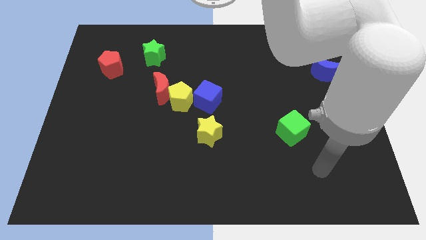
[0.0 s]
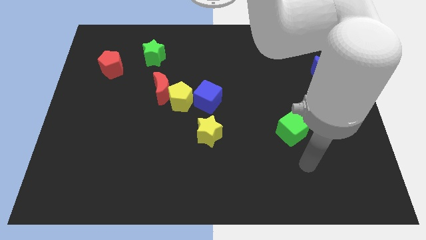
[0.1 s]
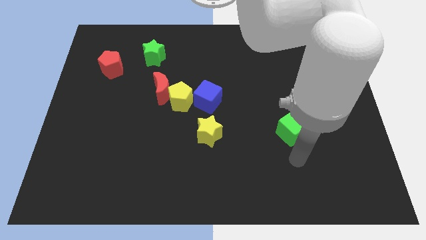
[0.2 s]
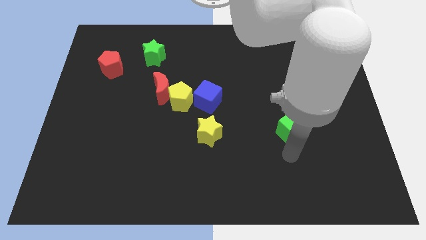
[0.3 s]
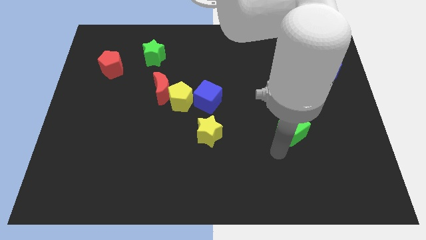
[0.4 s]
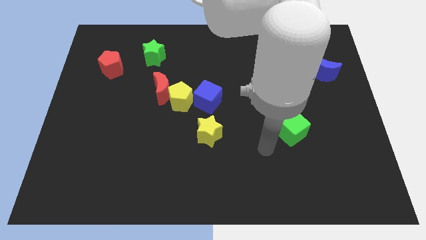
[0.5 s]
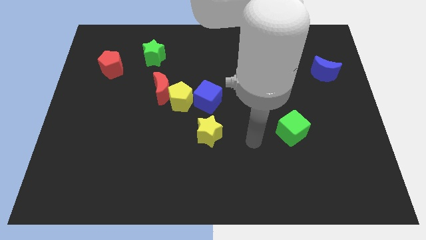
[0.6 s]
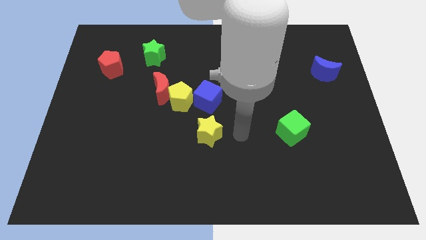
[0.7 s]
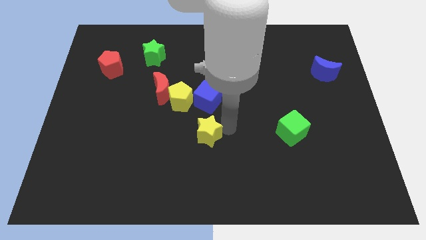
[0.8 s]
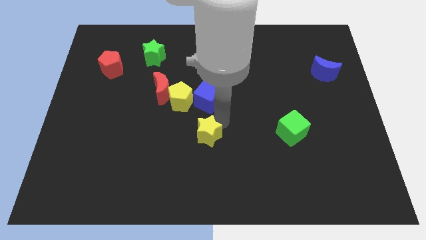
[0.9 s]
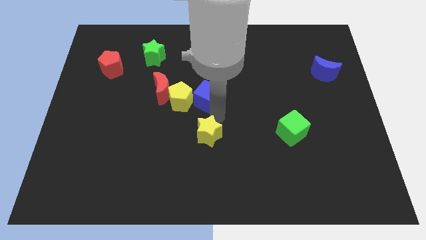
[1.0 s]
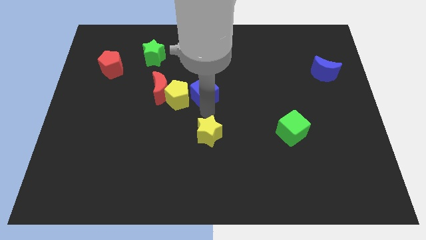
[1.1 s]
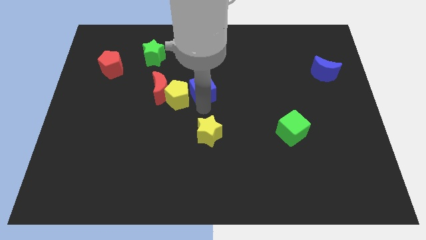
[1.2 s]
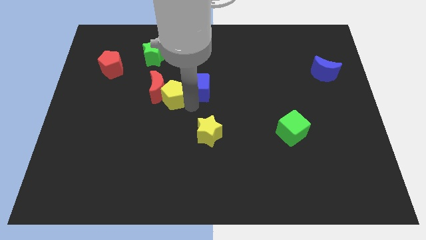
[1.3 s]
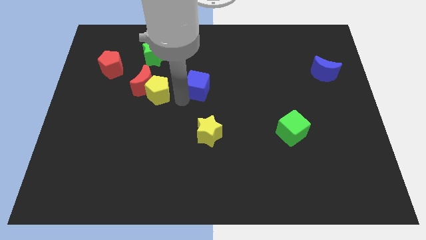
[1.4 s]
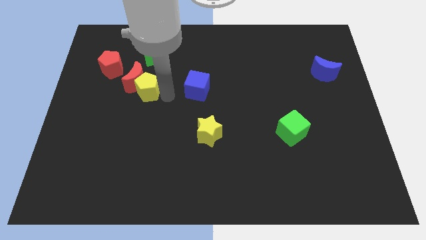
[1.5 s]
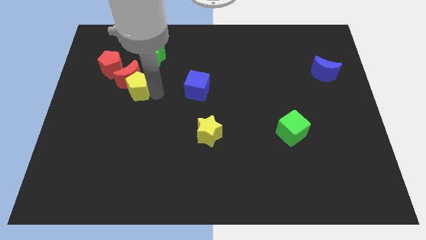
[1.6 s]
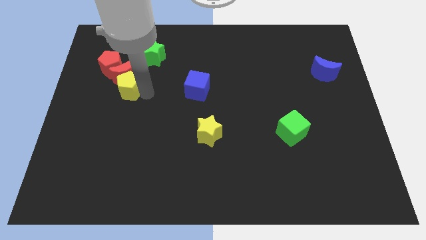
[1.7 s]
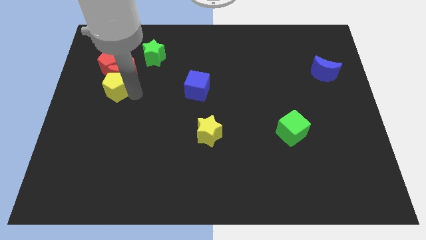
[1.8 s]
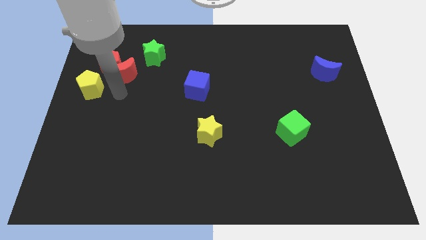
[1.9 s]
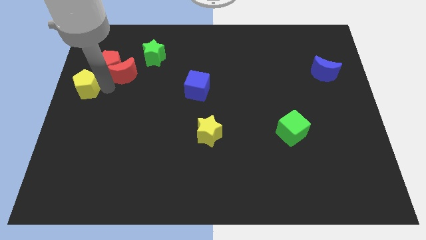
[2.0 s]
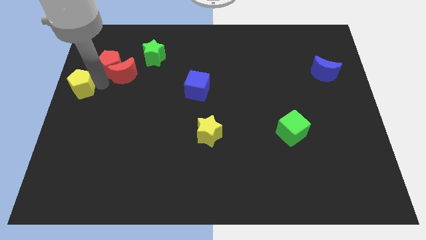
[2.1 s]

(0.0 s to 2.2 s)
move the red moon away from the yellow pentagon

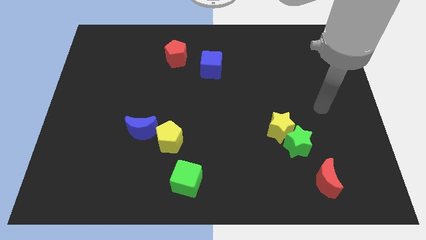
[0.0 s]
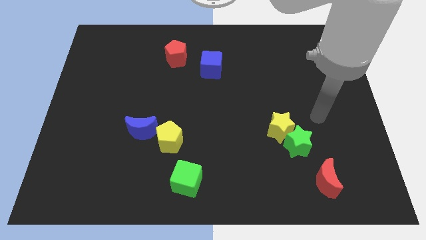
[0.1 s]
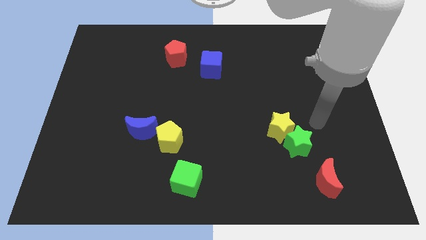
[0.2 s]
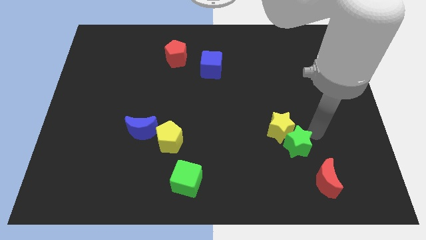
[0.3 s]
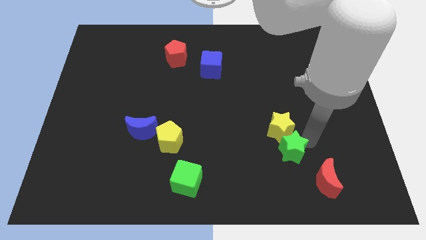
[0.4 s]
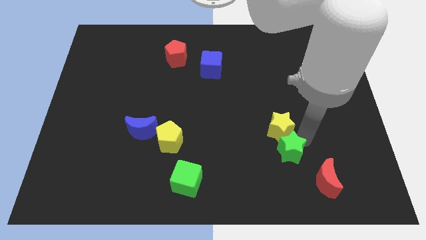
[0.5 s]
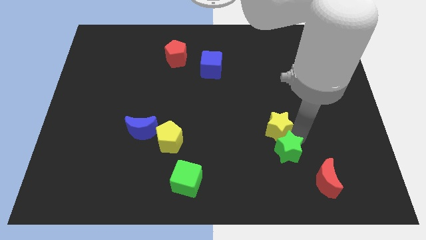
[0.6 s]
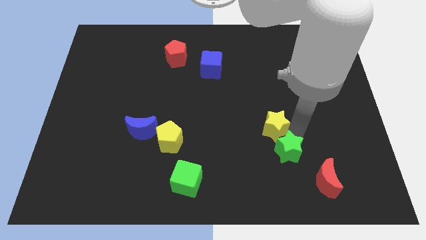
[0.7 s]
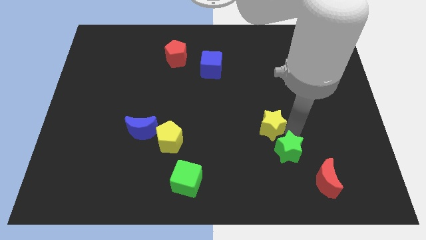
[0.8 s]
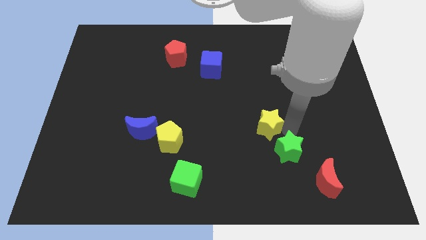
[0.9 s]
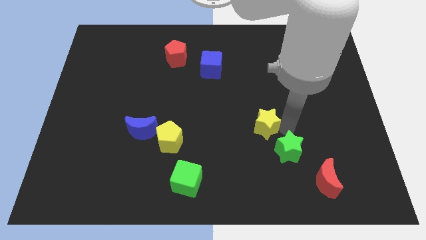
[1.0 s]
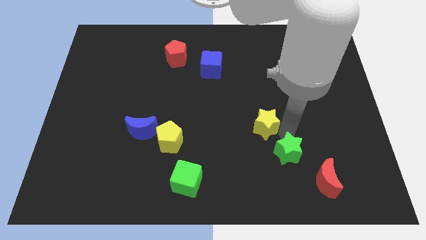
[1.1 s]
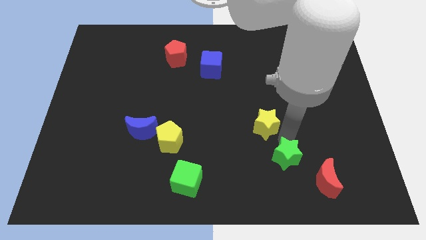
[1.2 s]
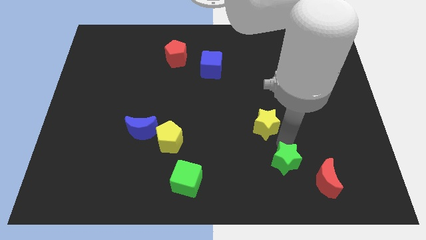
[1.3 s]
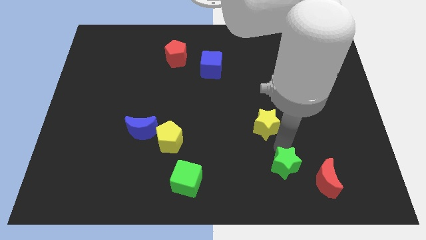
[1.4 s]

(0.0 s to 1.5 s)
separate the yellow star from the green star

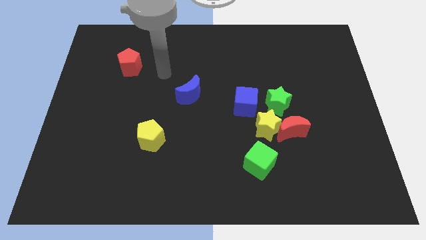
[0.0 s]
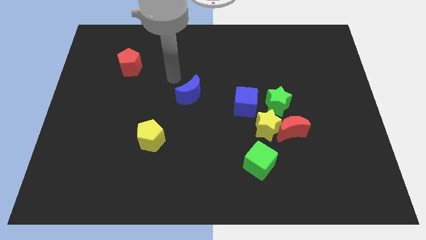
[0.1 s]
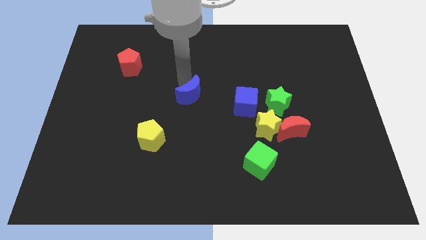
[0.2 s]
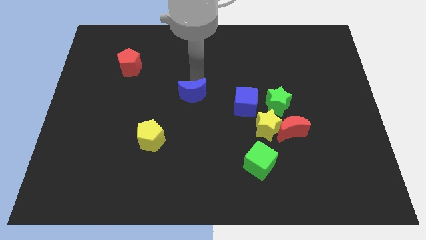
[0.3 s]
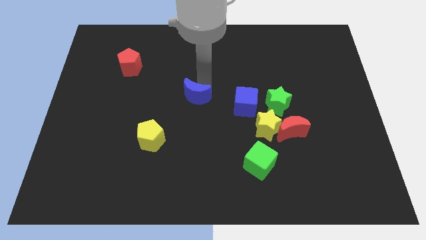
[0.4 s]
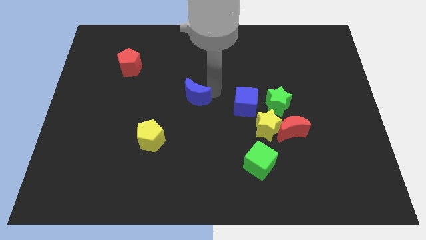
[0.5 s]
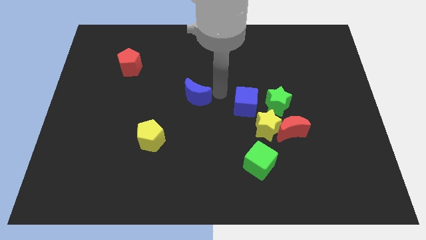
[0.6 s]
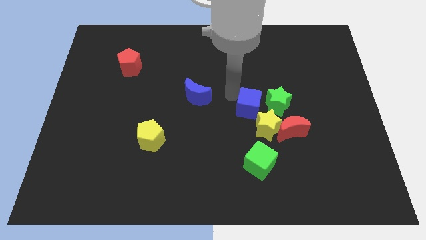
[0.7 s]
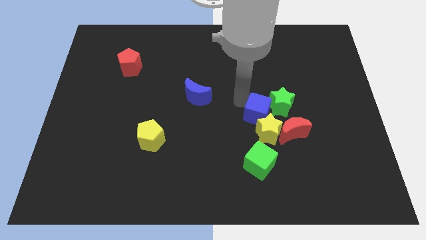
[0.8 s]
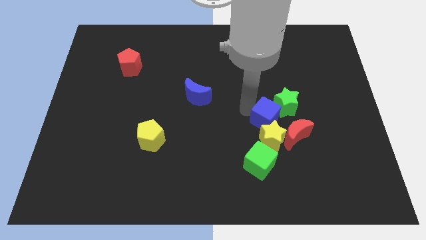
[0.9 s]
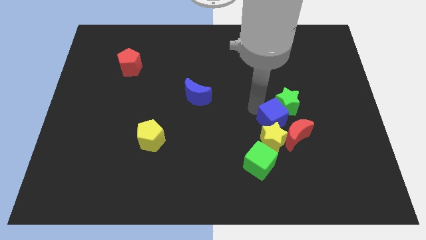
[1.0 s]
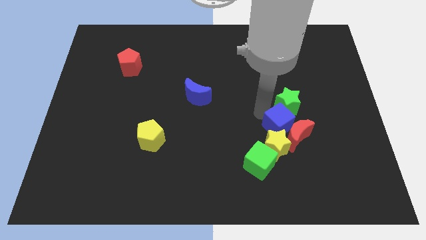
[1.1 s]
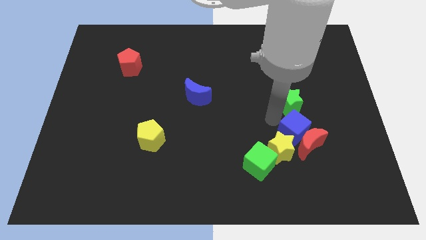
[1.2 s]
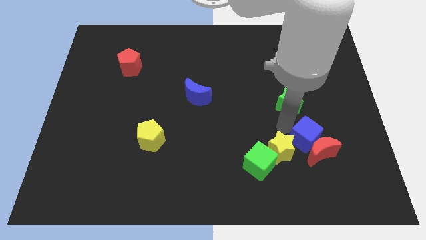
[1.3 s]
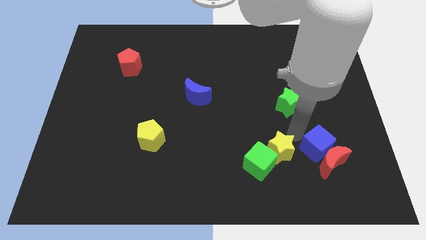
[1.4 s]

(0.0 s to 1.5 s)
pull the red moon apart from the yellow star and green star

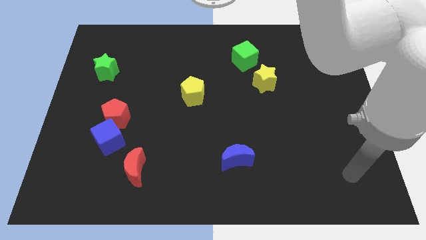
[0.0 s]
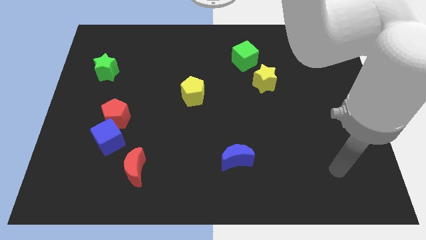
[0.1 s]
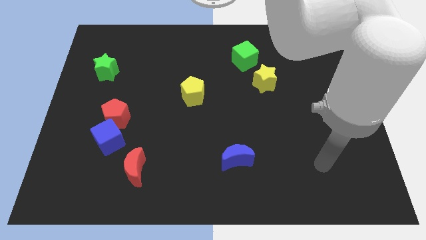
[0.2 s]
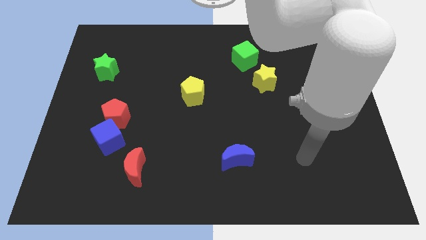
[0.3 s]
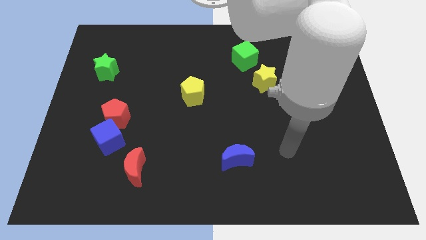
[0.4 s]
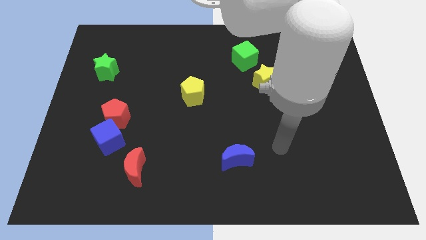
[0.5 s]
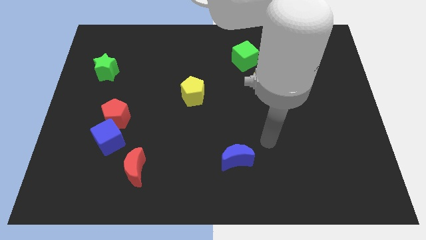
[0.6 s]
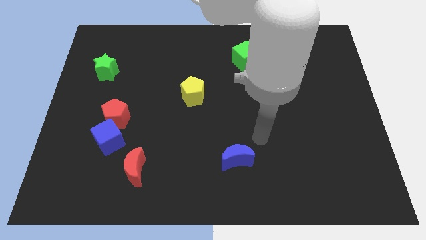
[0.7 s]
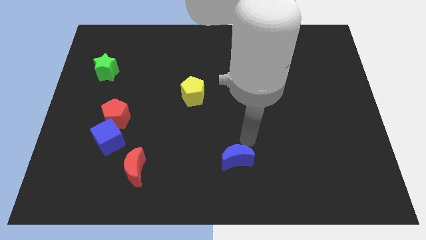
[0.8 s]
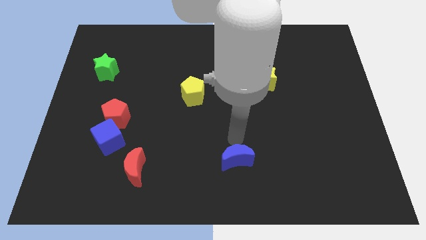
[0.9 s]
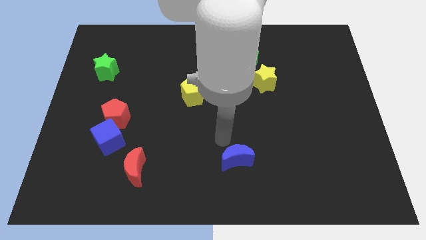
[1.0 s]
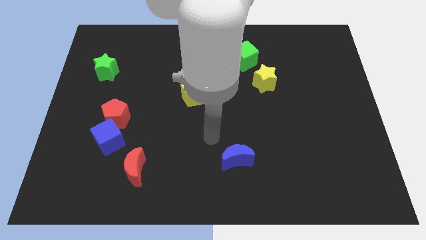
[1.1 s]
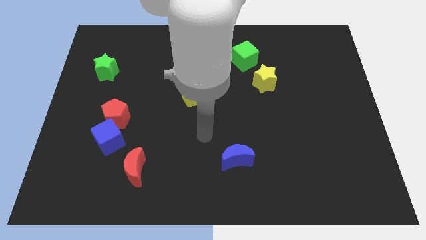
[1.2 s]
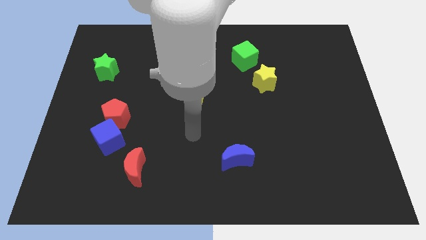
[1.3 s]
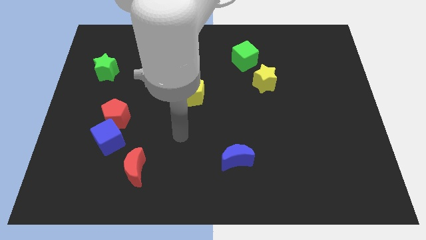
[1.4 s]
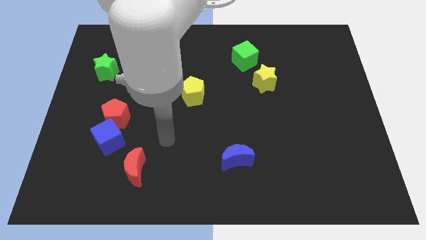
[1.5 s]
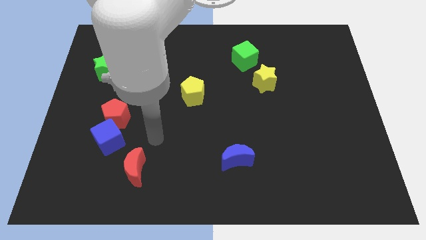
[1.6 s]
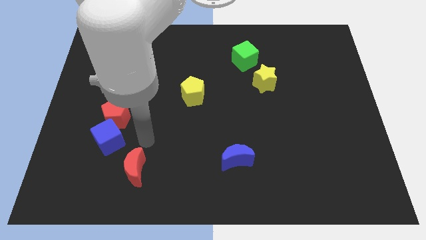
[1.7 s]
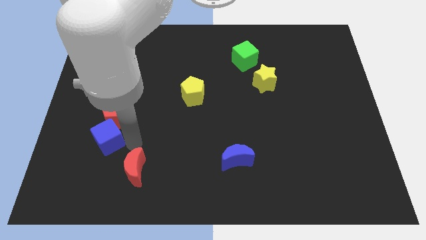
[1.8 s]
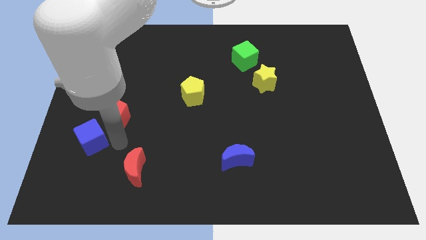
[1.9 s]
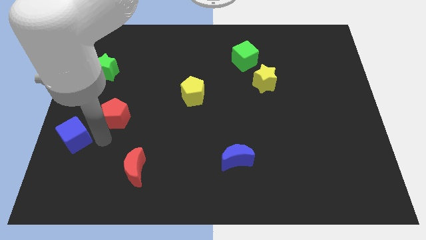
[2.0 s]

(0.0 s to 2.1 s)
pull the red pentagon apart from the blue cube

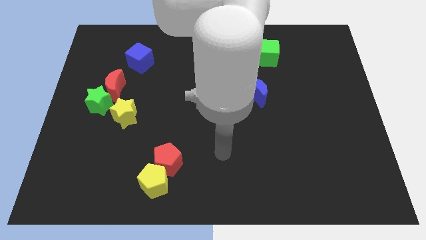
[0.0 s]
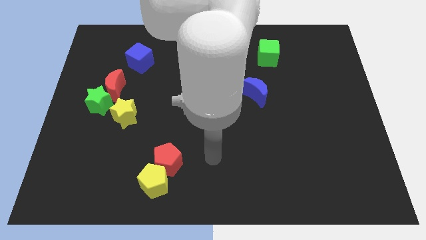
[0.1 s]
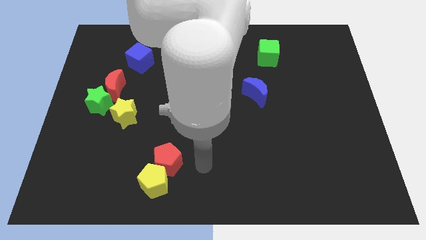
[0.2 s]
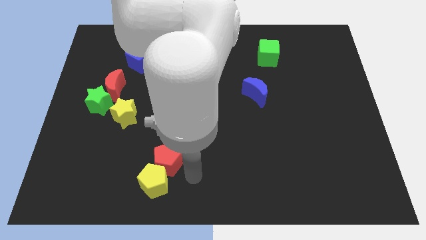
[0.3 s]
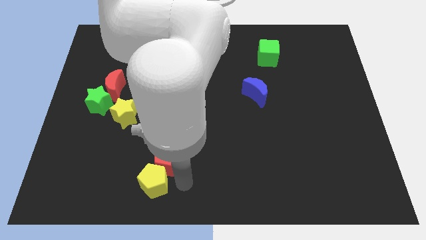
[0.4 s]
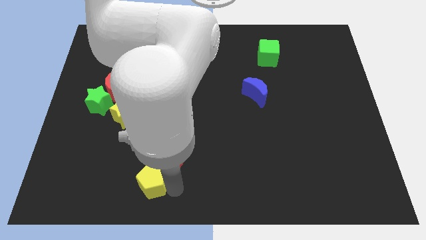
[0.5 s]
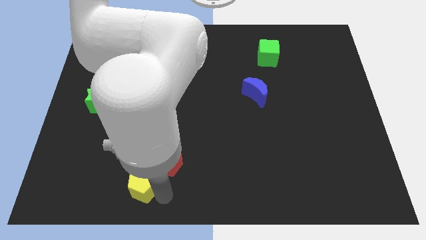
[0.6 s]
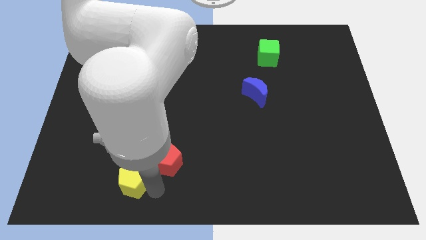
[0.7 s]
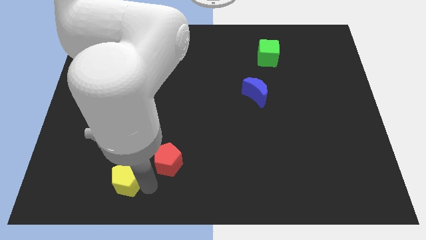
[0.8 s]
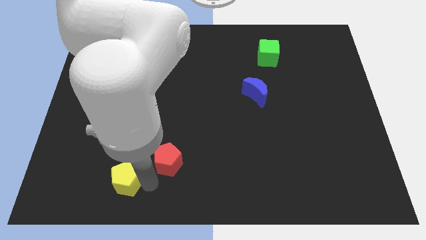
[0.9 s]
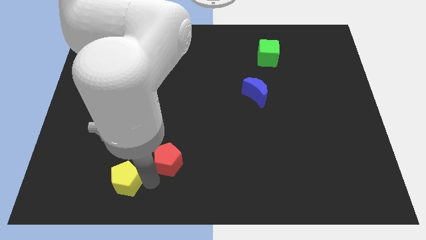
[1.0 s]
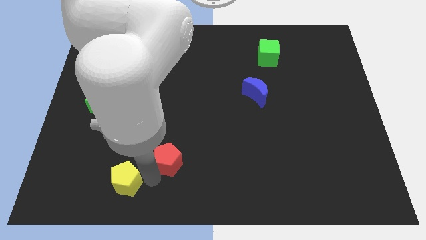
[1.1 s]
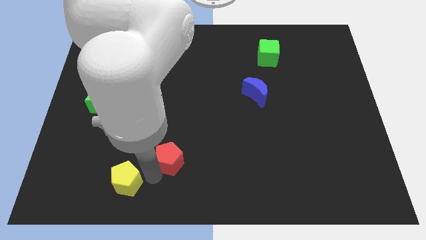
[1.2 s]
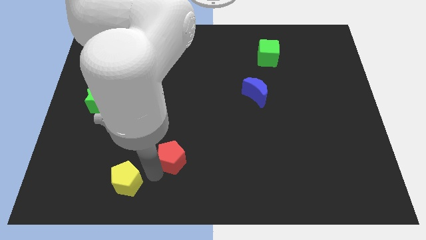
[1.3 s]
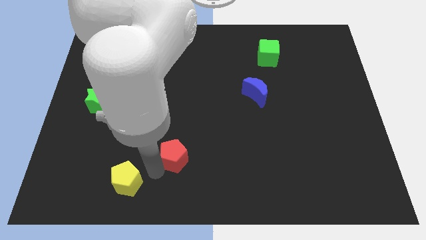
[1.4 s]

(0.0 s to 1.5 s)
move the red pentagon away from the yellow pentagon

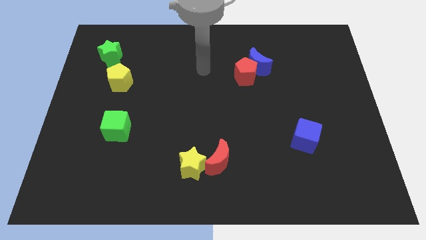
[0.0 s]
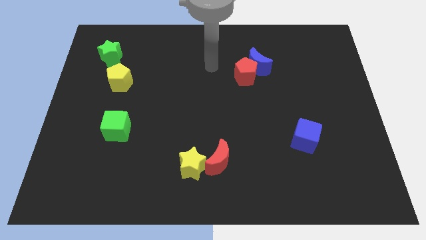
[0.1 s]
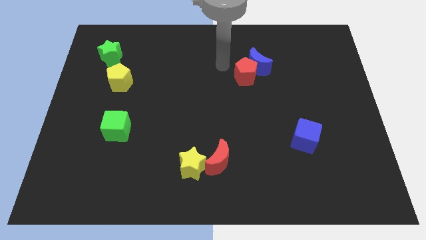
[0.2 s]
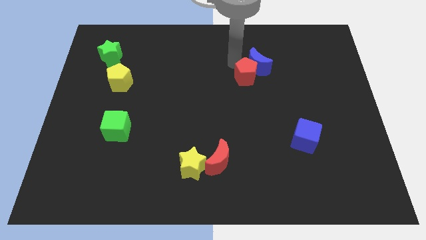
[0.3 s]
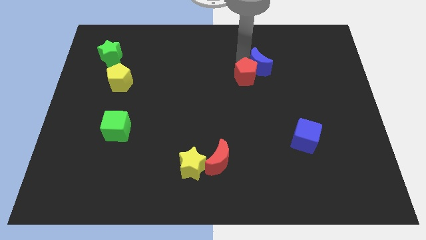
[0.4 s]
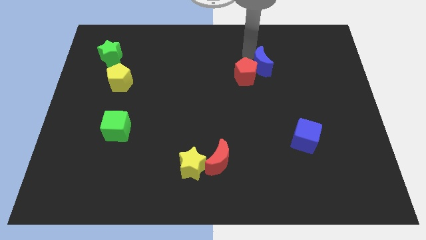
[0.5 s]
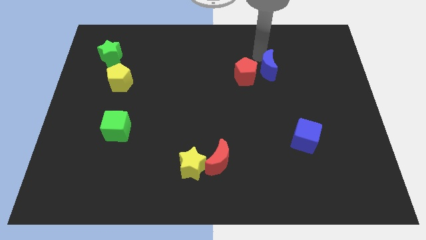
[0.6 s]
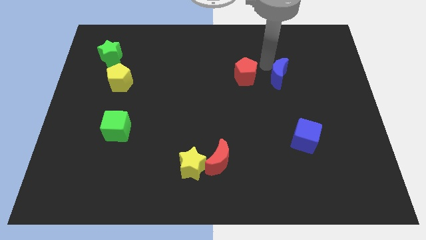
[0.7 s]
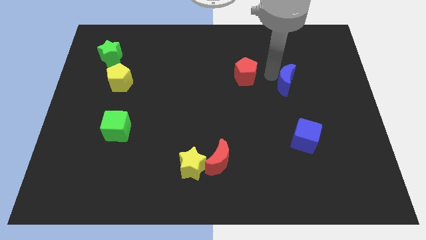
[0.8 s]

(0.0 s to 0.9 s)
pull the red pentagon apart from the blue moon
